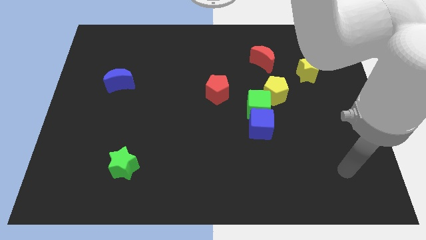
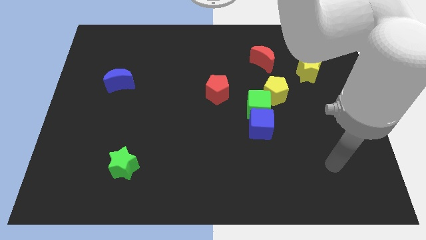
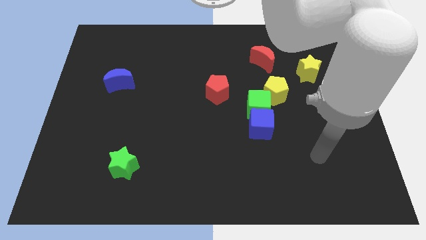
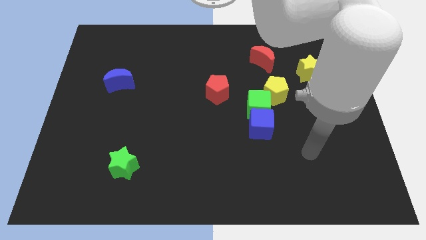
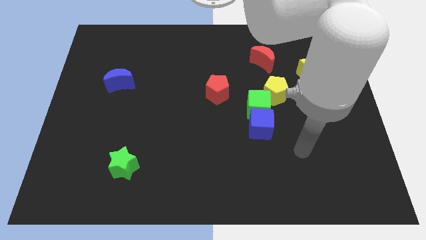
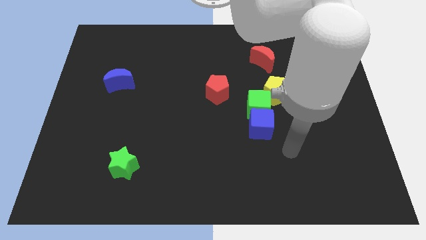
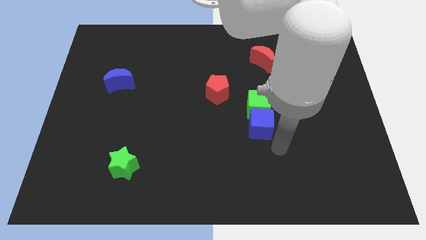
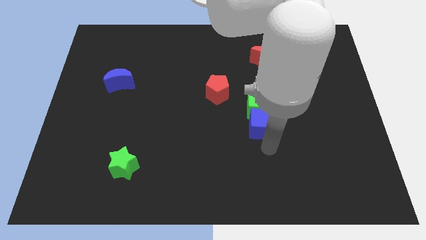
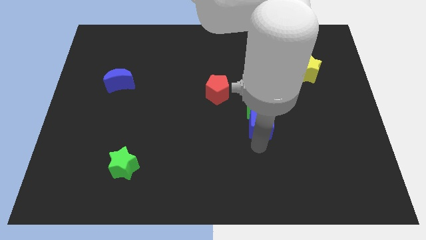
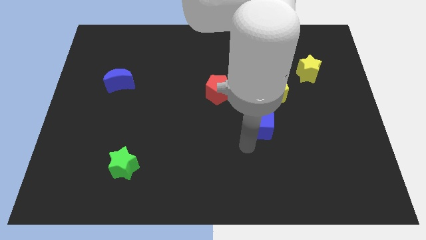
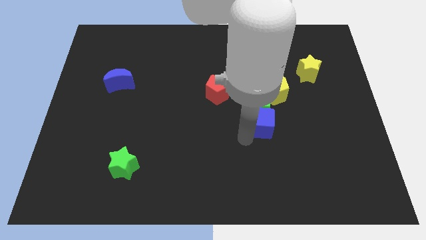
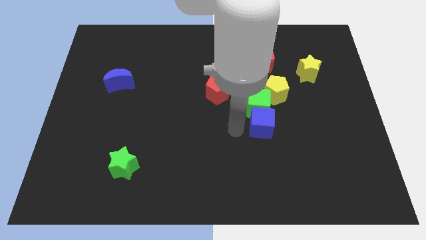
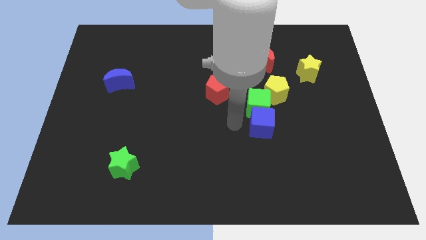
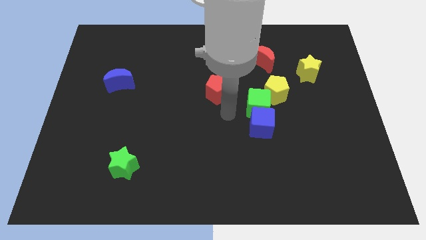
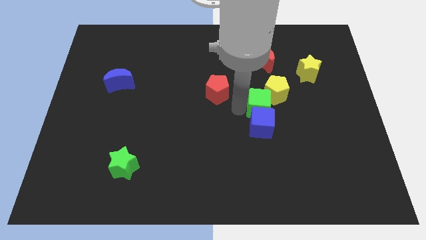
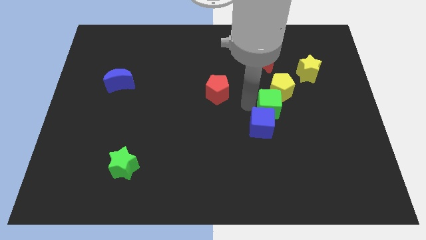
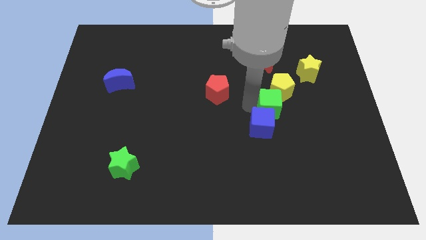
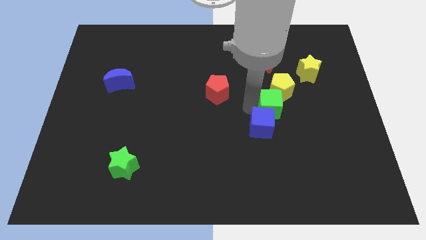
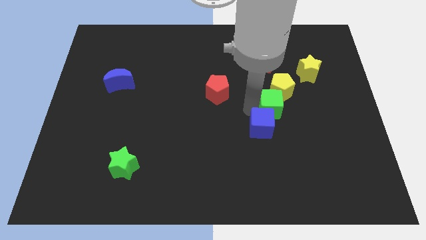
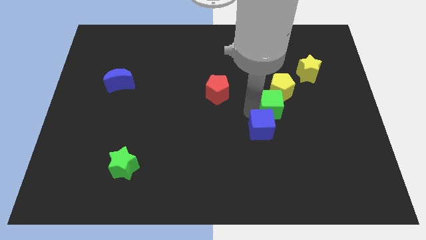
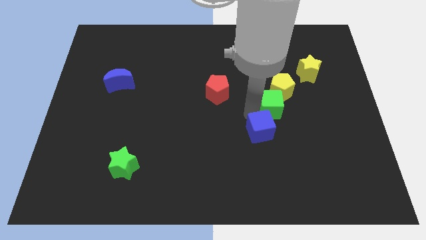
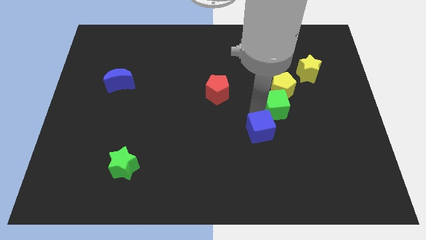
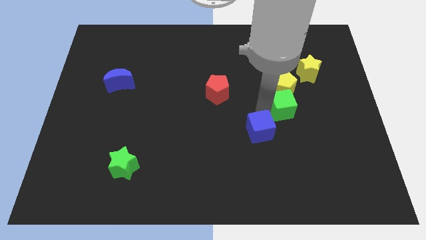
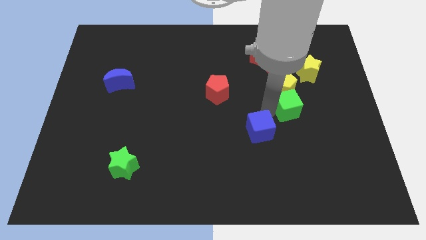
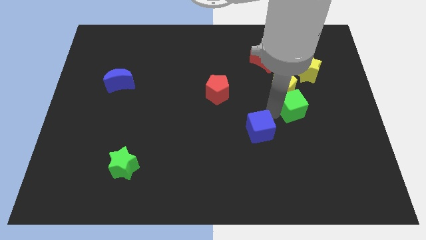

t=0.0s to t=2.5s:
separate the blue cube from the green cube

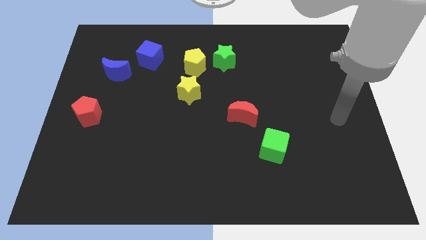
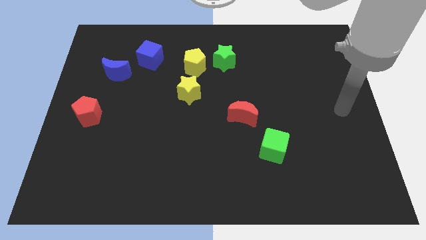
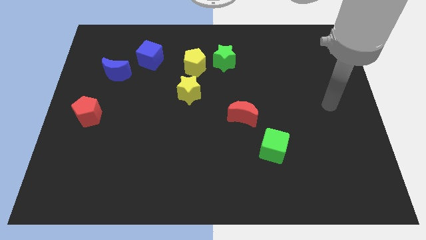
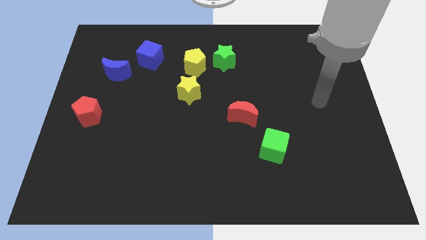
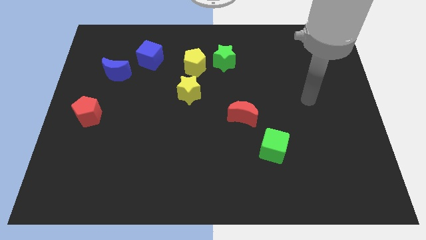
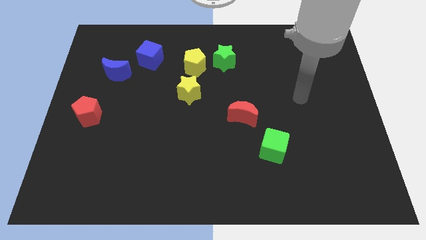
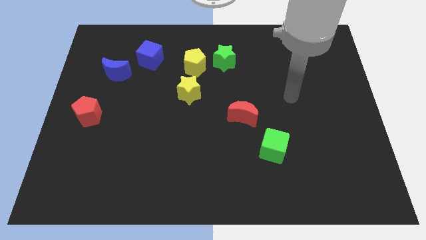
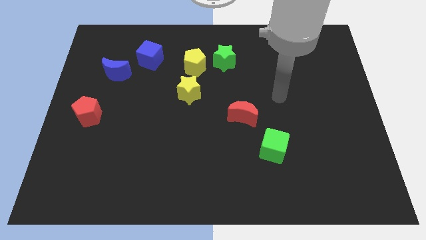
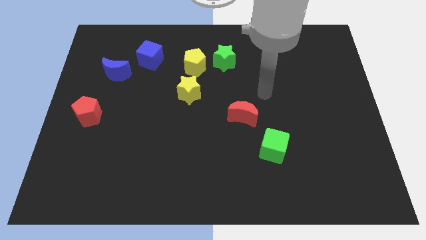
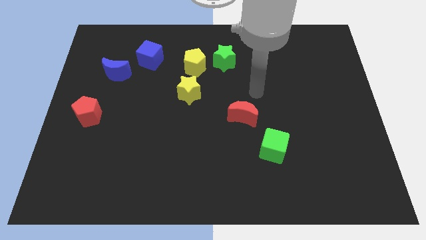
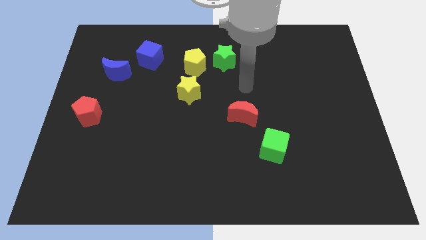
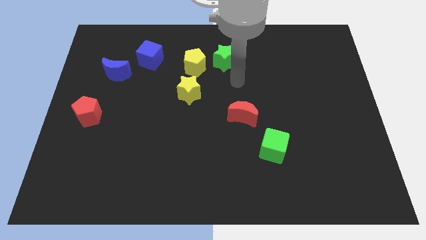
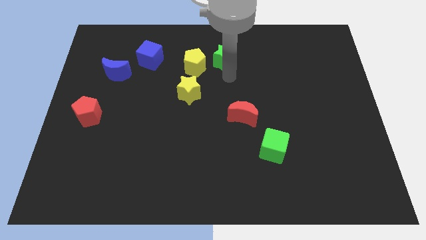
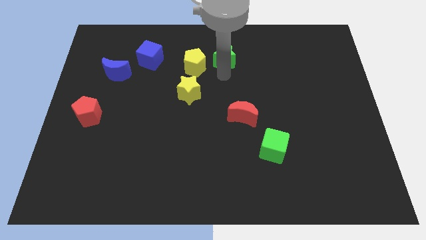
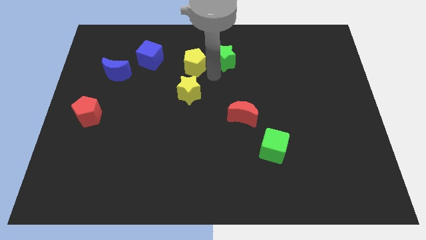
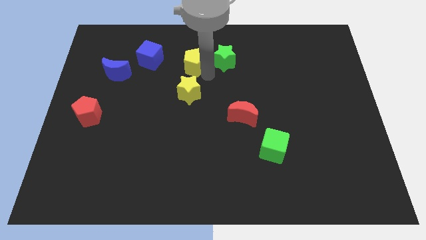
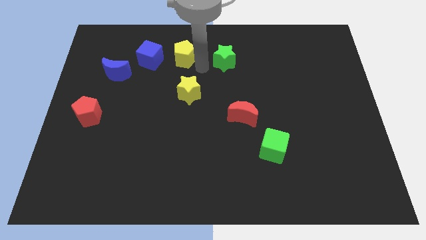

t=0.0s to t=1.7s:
pull the green star apart from the yellow pentagon

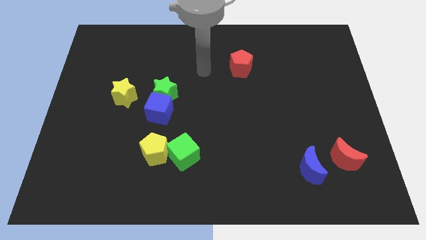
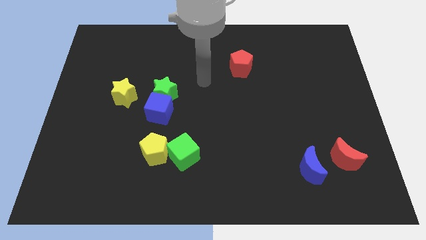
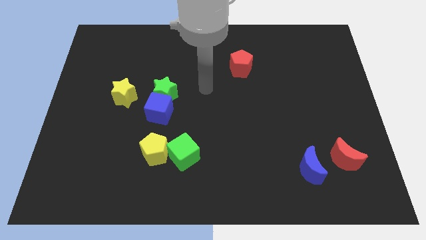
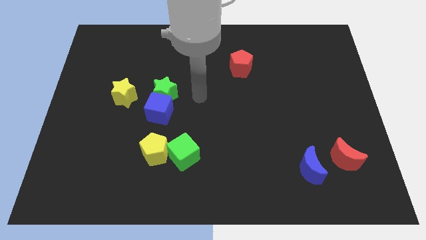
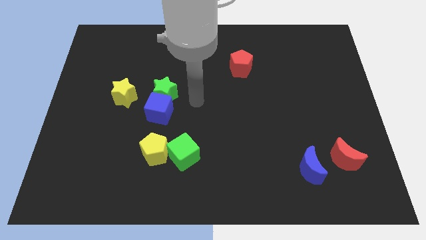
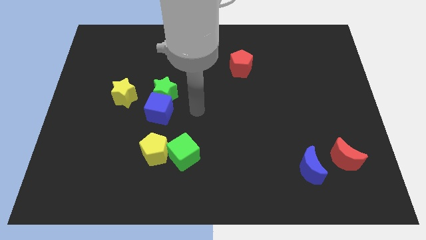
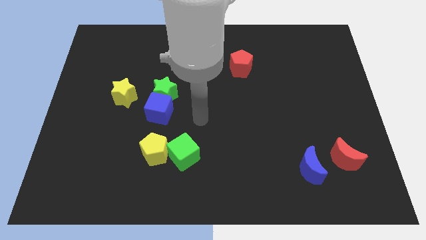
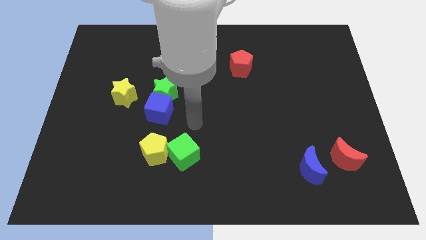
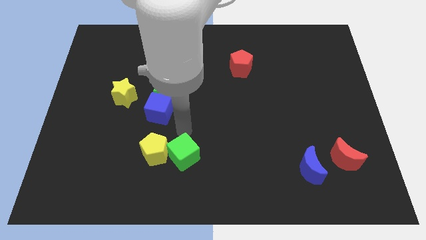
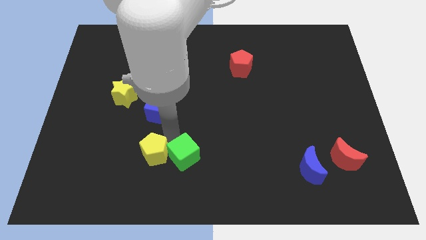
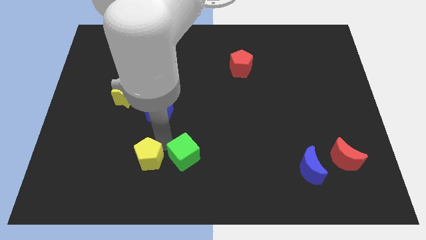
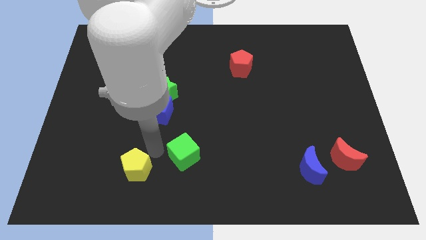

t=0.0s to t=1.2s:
separate the green cube from the yellow pentagon

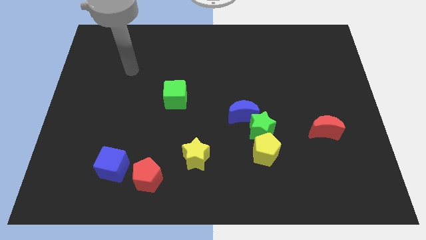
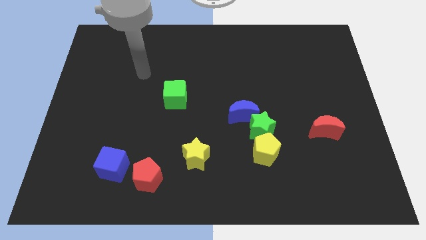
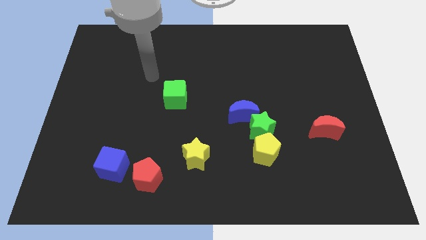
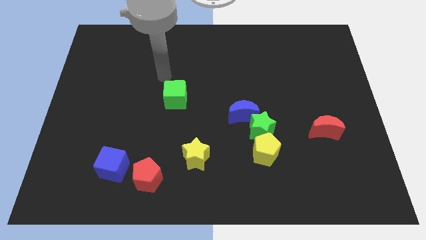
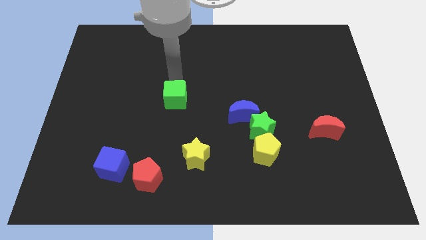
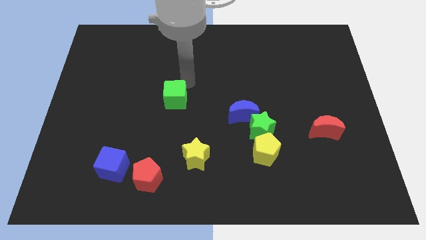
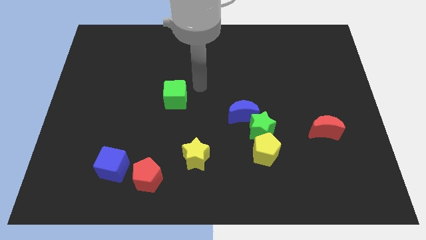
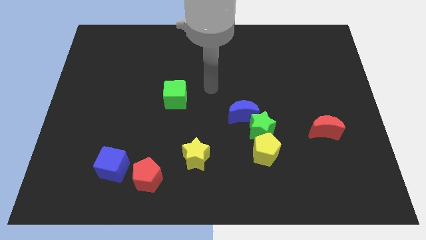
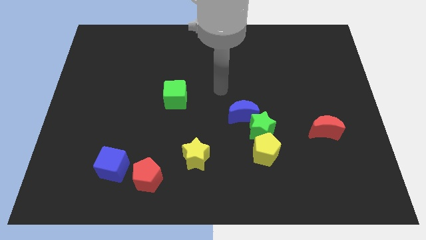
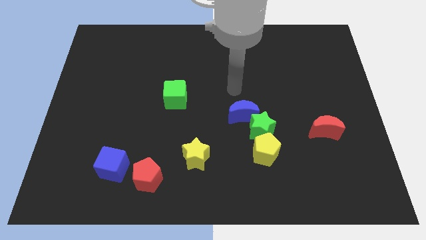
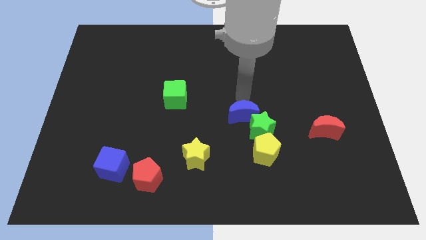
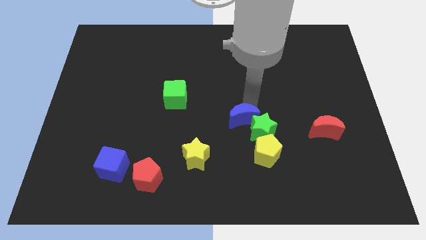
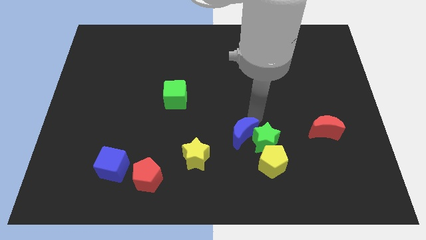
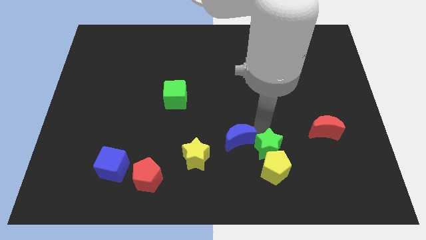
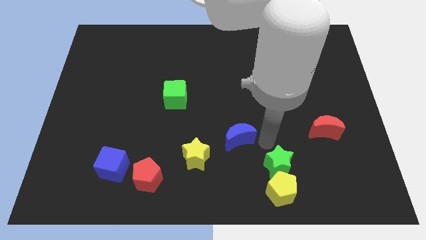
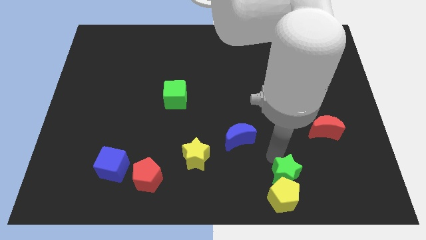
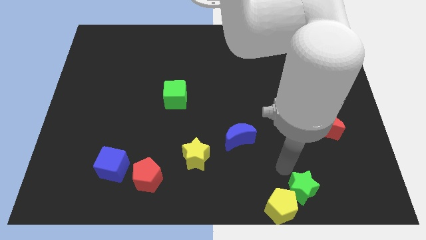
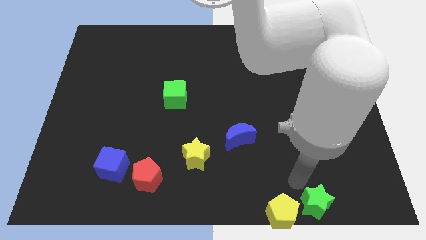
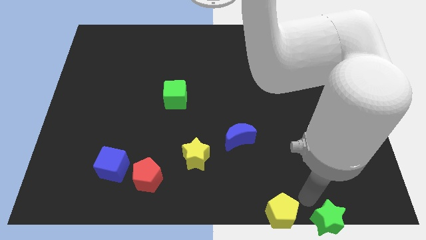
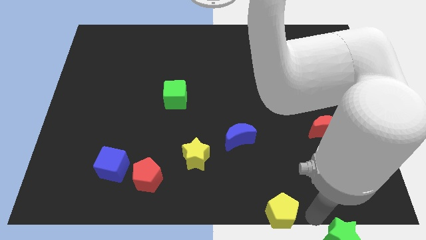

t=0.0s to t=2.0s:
separate the yellow pentagon from the green star

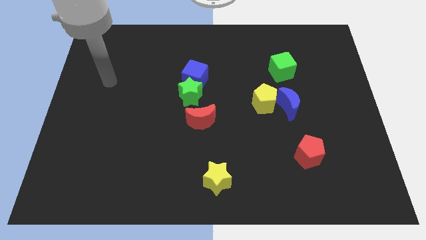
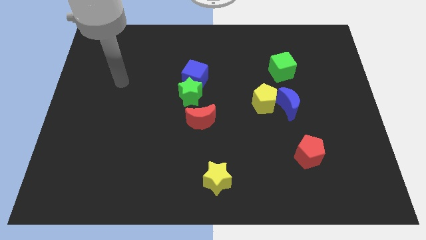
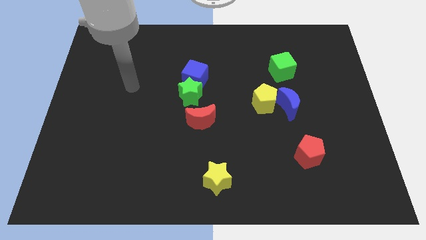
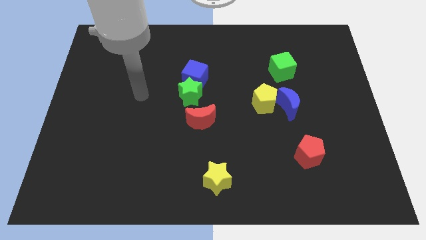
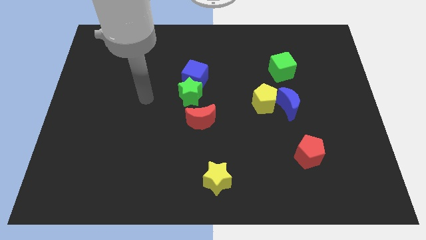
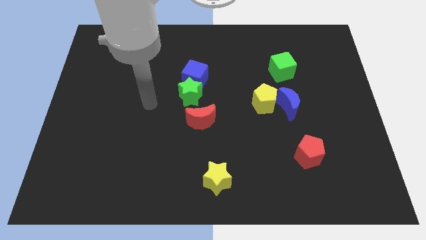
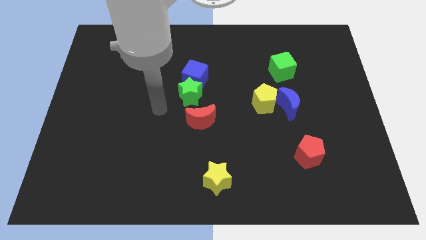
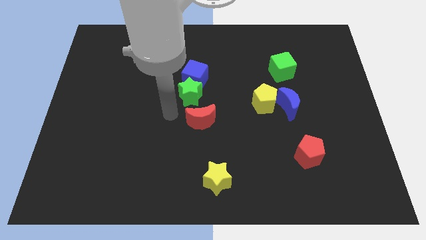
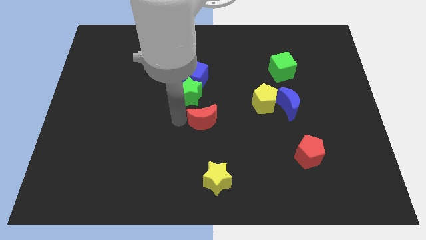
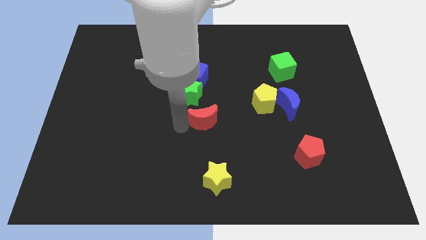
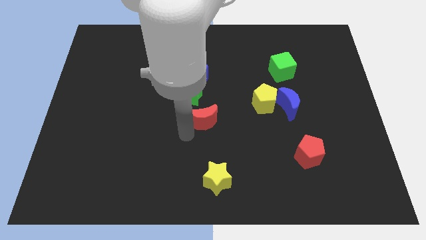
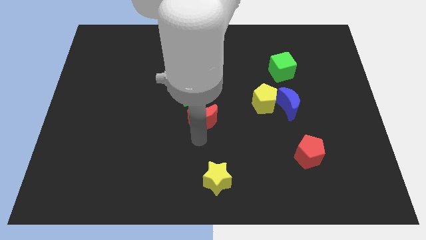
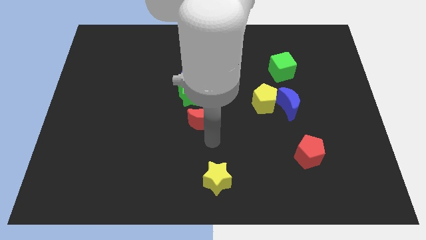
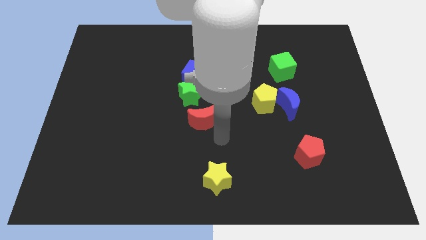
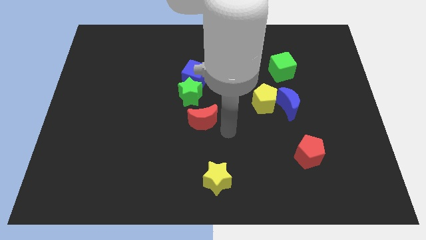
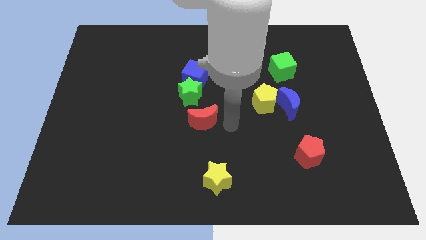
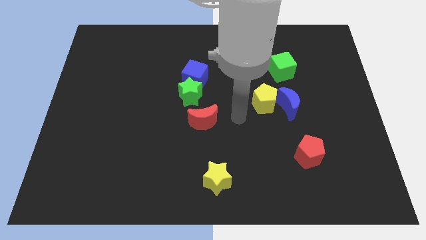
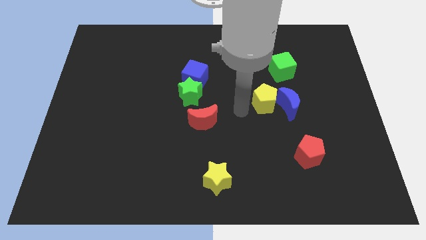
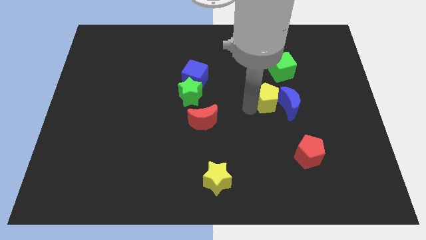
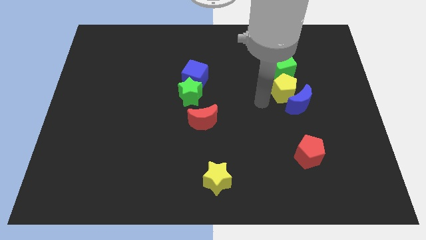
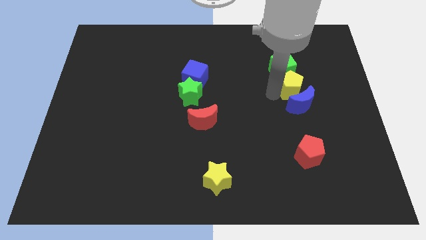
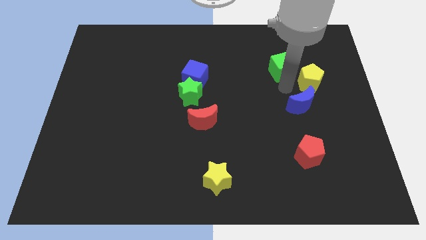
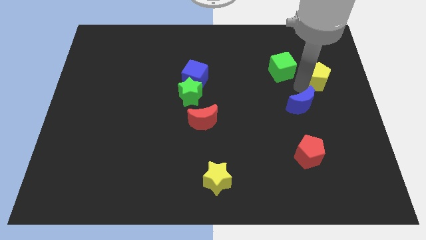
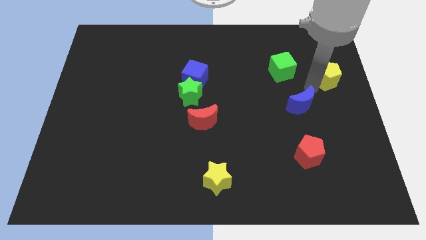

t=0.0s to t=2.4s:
move the blue moon away from the yellow pentagon
